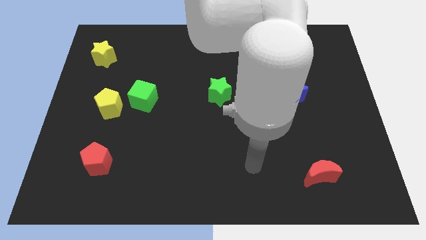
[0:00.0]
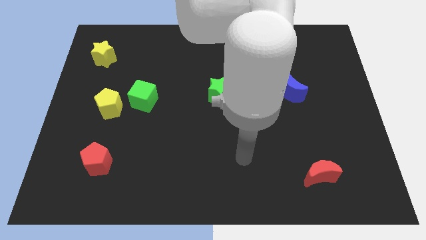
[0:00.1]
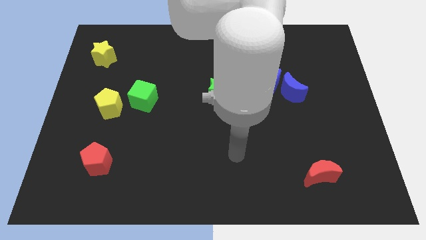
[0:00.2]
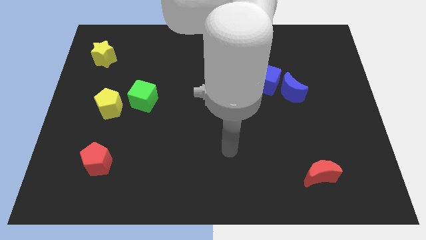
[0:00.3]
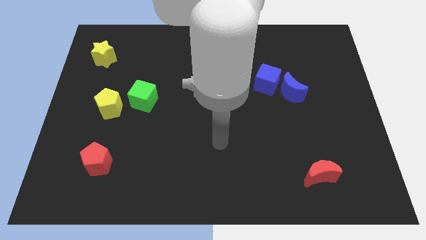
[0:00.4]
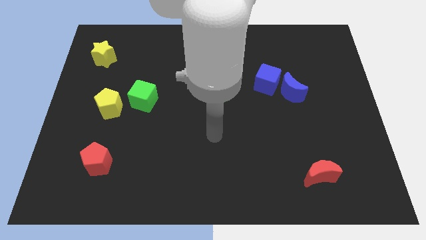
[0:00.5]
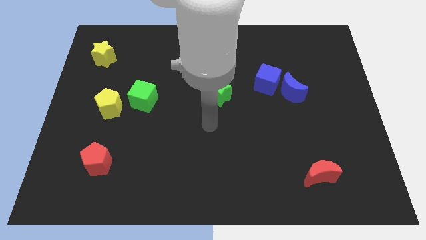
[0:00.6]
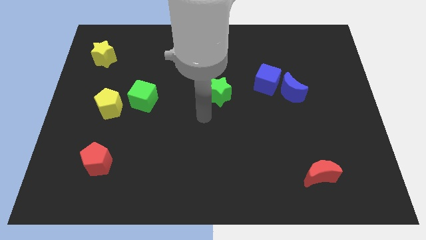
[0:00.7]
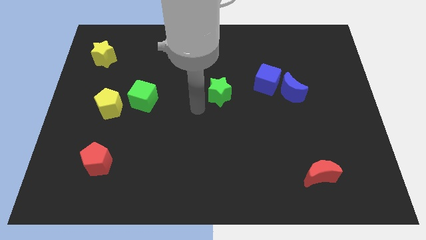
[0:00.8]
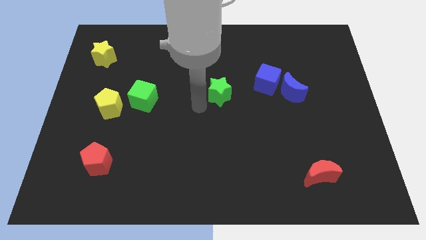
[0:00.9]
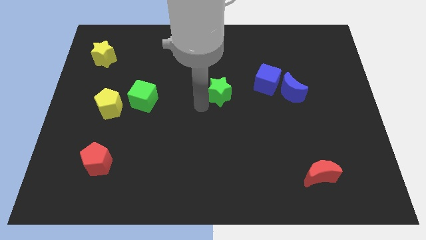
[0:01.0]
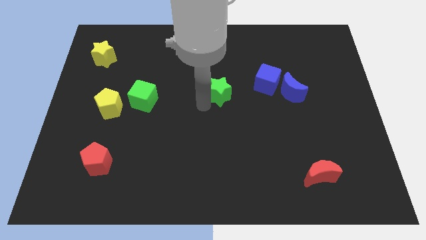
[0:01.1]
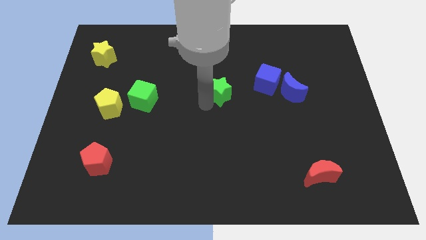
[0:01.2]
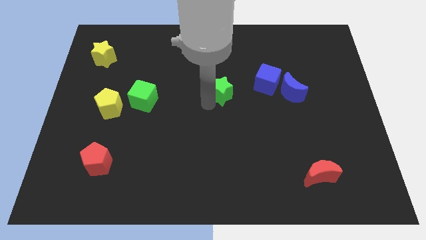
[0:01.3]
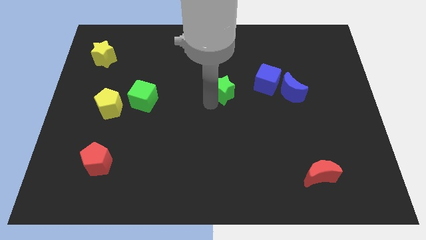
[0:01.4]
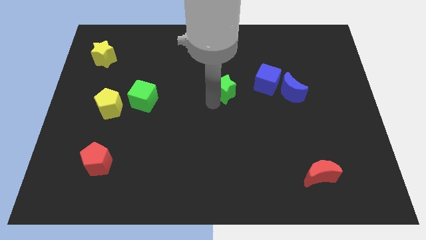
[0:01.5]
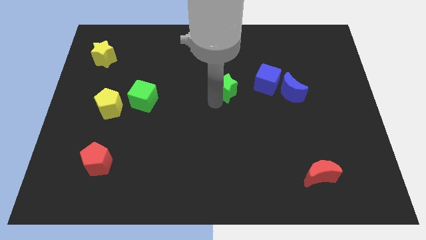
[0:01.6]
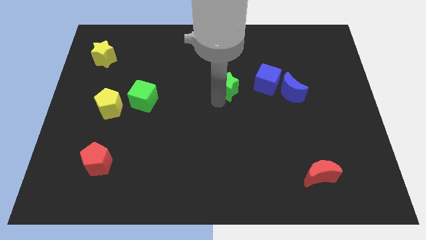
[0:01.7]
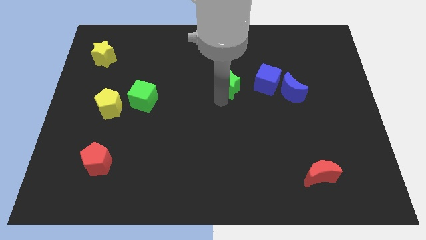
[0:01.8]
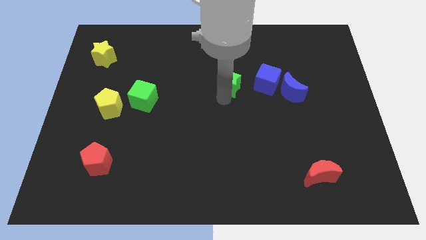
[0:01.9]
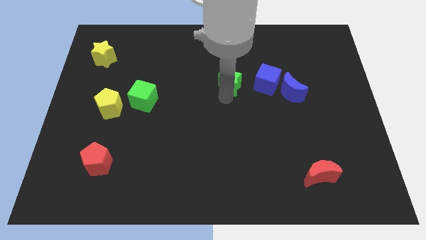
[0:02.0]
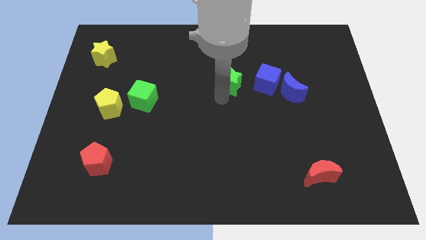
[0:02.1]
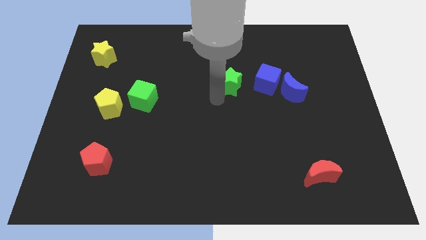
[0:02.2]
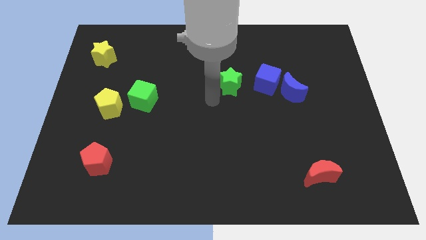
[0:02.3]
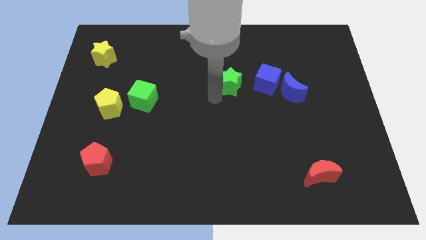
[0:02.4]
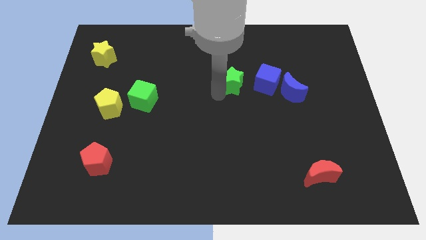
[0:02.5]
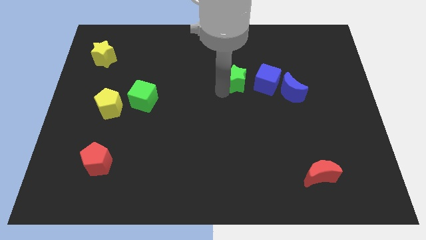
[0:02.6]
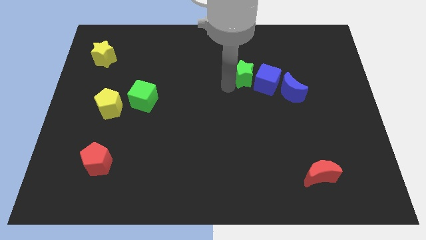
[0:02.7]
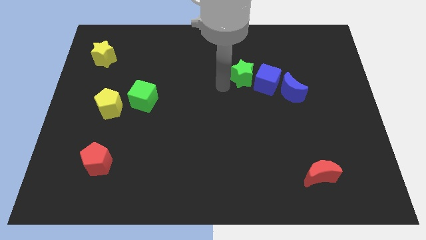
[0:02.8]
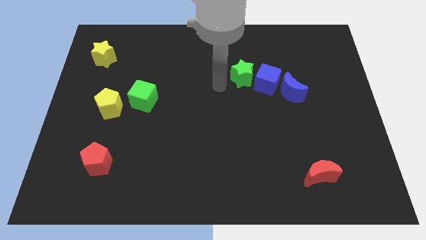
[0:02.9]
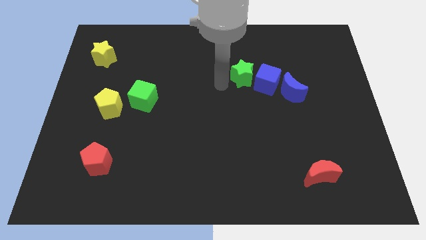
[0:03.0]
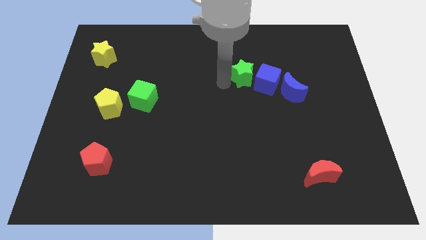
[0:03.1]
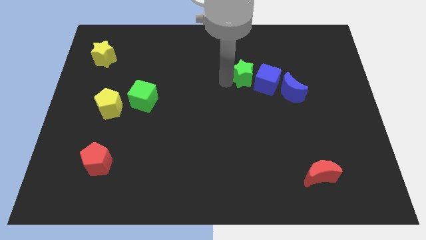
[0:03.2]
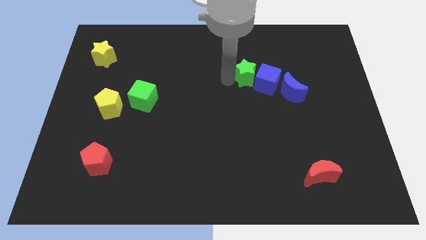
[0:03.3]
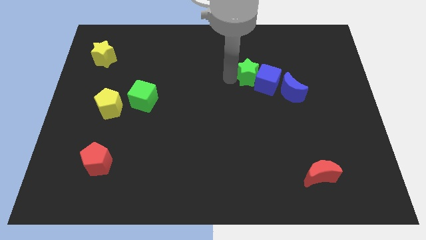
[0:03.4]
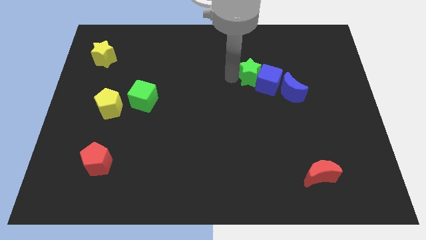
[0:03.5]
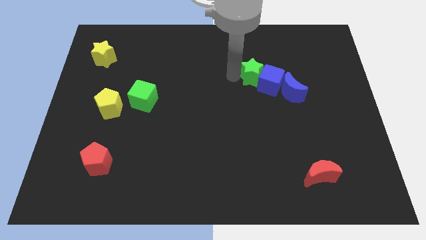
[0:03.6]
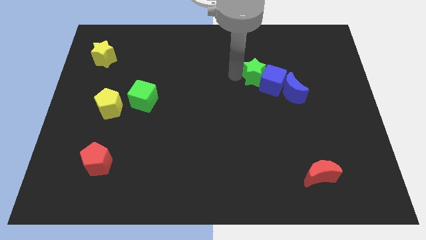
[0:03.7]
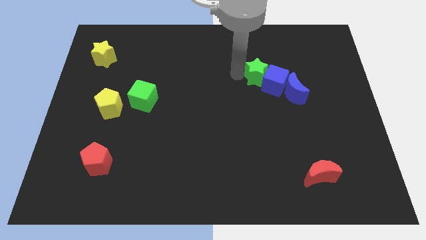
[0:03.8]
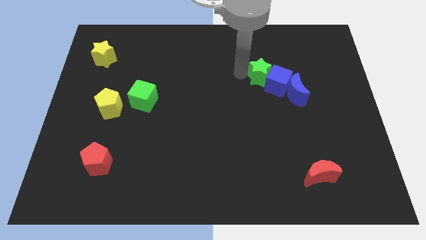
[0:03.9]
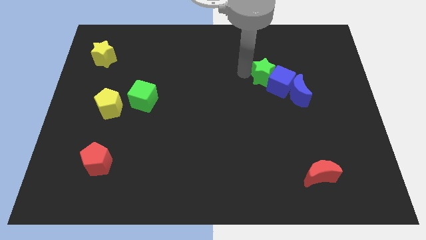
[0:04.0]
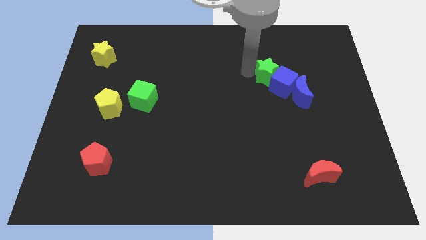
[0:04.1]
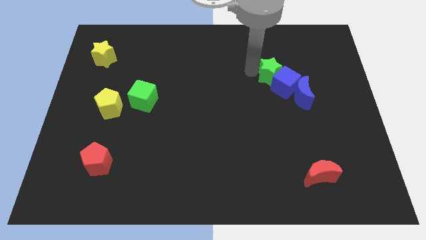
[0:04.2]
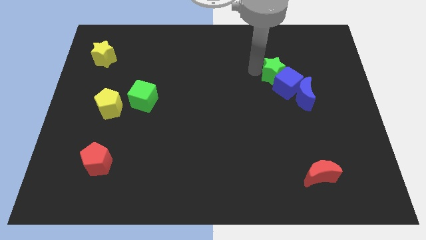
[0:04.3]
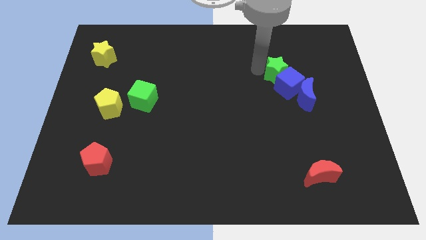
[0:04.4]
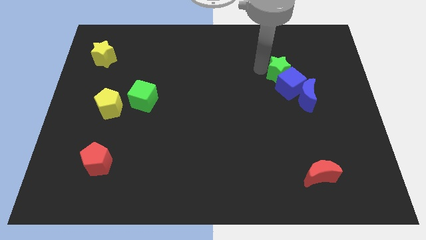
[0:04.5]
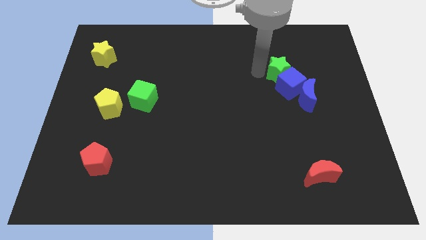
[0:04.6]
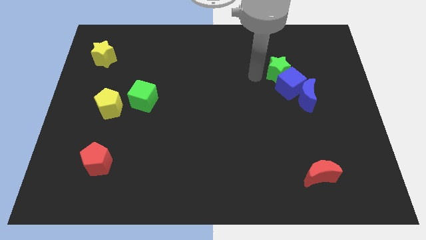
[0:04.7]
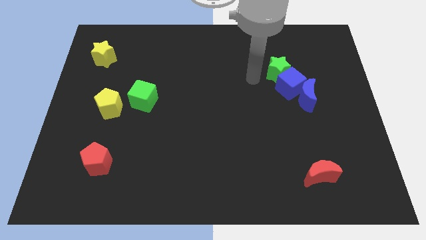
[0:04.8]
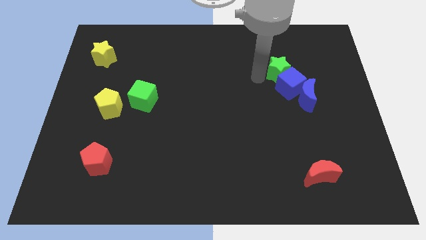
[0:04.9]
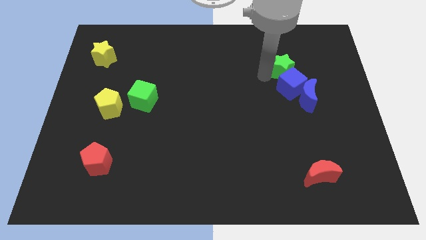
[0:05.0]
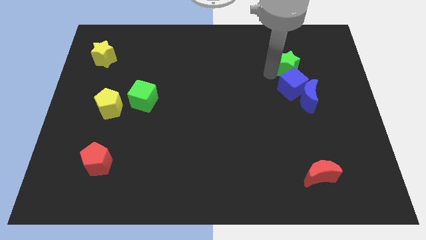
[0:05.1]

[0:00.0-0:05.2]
move the green star above the blue moon

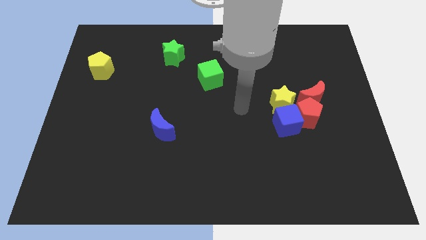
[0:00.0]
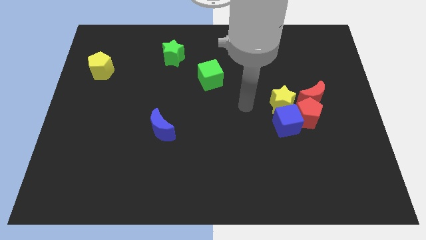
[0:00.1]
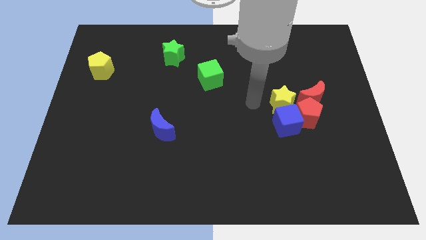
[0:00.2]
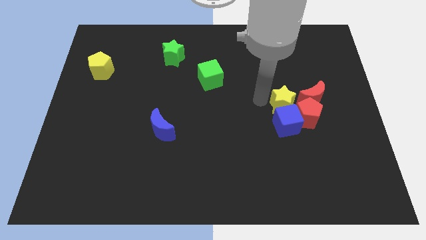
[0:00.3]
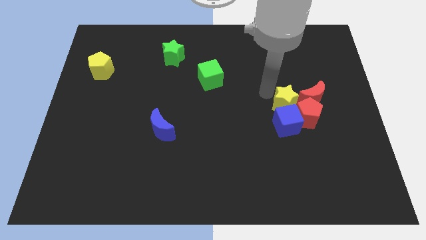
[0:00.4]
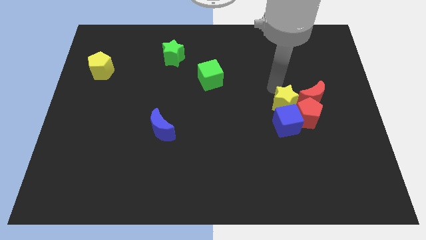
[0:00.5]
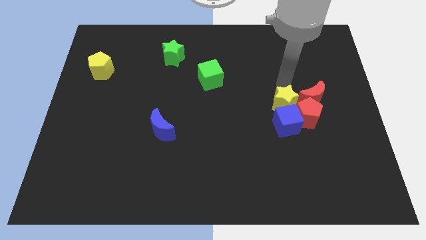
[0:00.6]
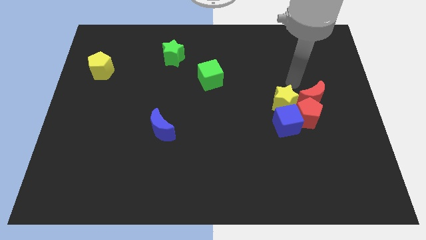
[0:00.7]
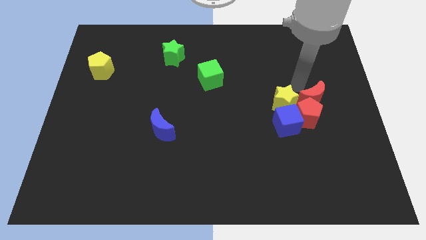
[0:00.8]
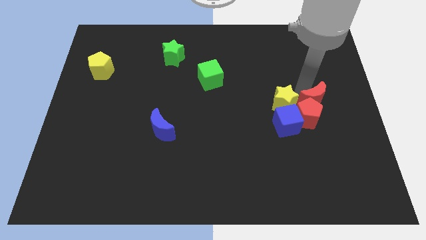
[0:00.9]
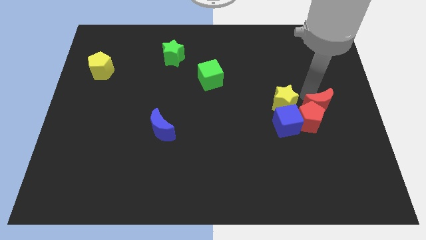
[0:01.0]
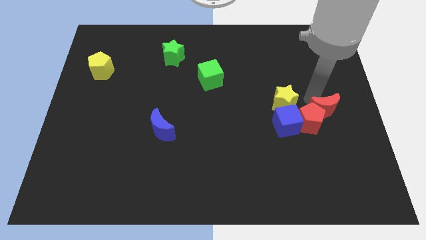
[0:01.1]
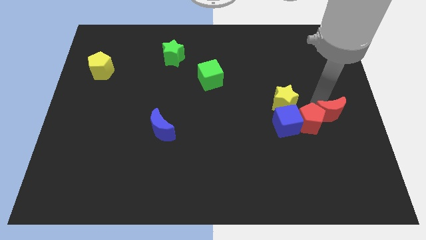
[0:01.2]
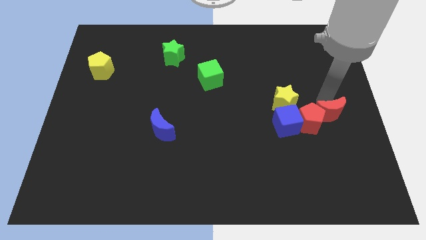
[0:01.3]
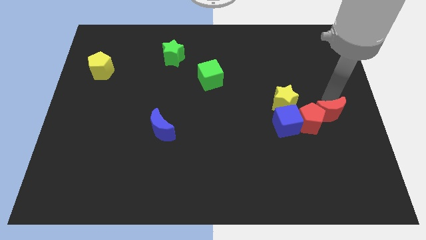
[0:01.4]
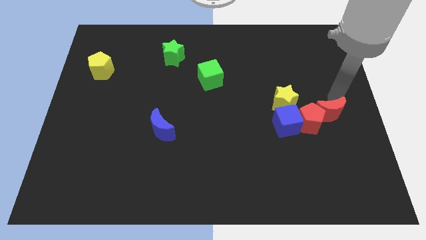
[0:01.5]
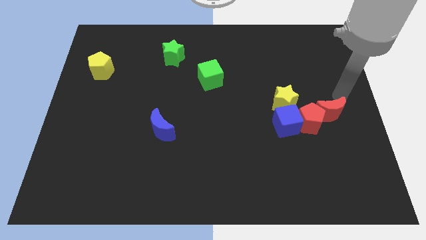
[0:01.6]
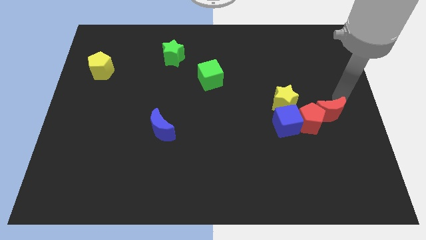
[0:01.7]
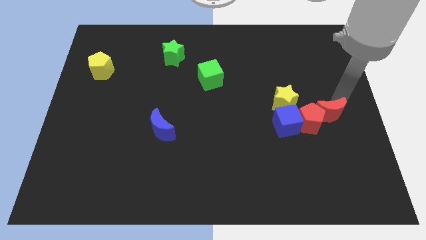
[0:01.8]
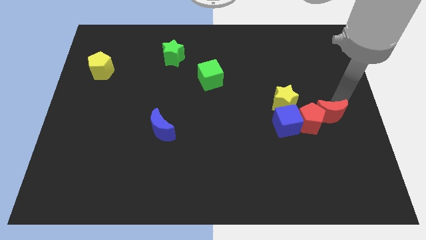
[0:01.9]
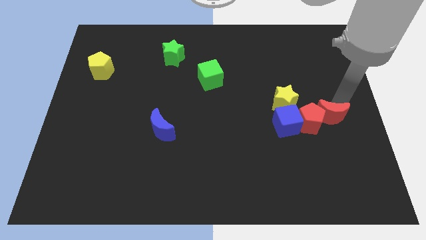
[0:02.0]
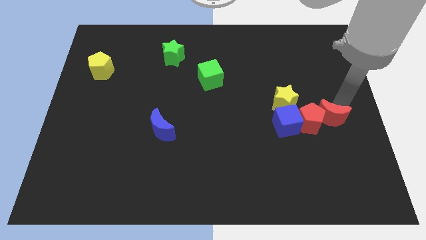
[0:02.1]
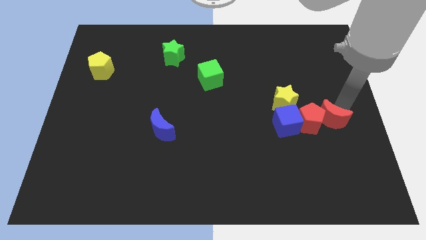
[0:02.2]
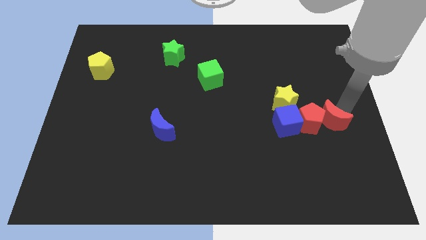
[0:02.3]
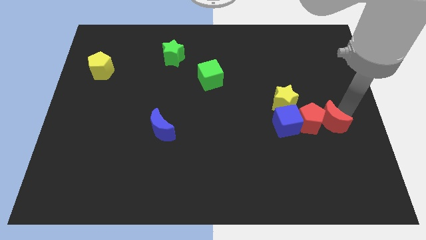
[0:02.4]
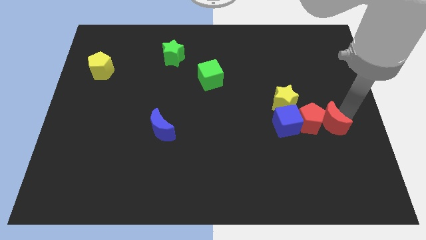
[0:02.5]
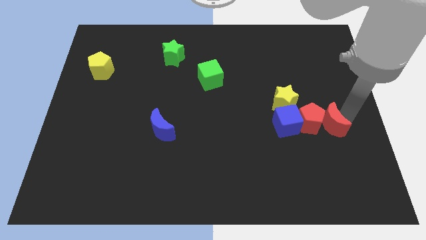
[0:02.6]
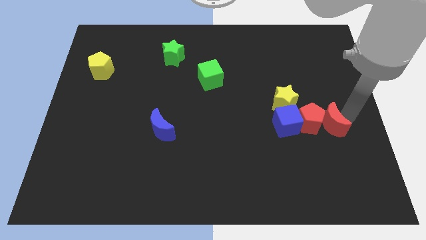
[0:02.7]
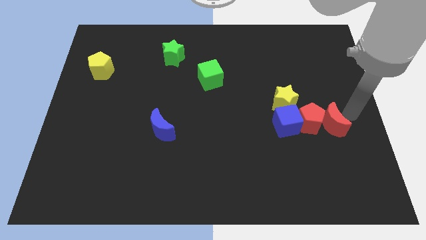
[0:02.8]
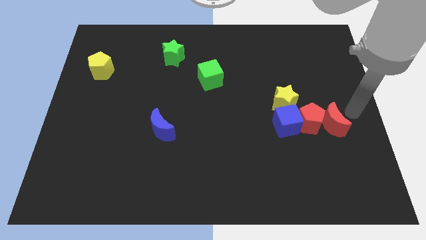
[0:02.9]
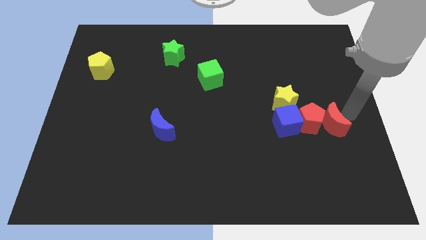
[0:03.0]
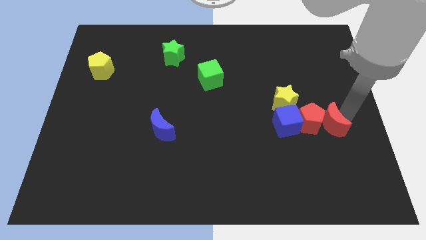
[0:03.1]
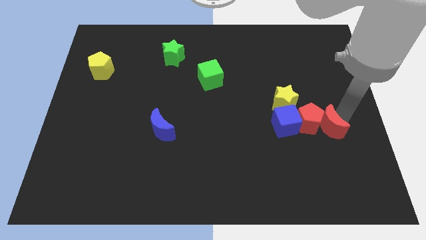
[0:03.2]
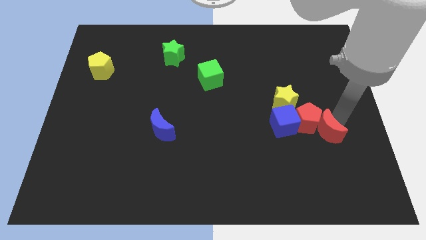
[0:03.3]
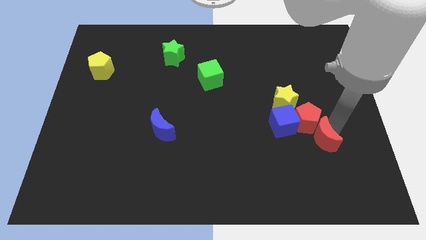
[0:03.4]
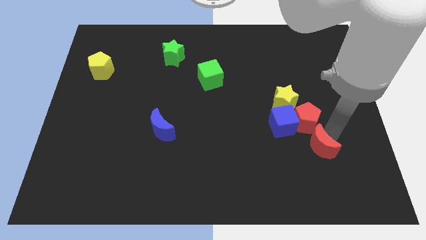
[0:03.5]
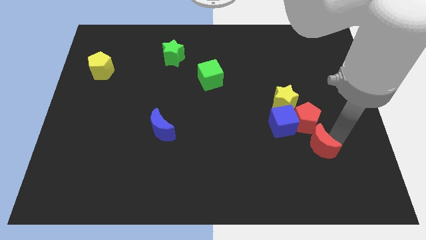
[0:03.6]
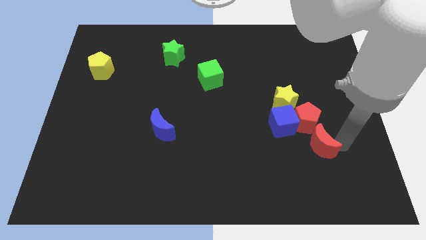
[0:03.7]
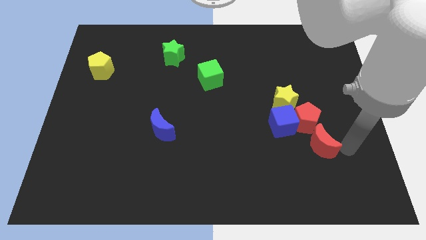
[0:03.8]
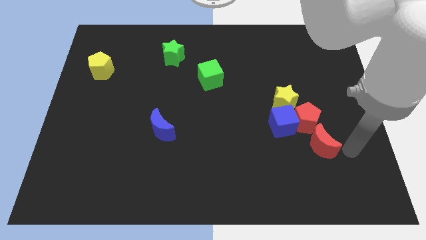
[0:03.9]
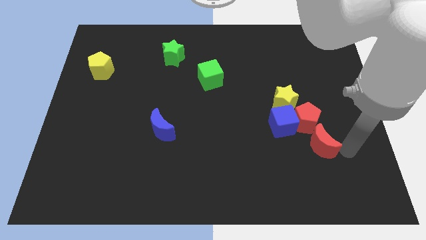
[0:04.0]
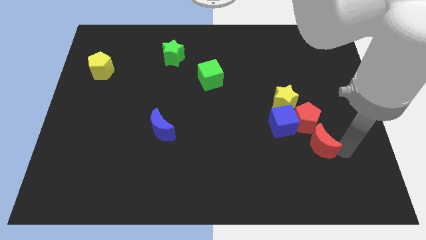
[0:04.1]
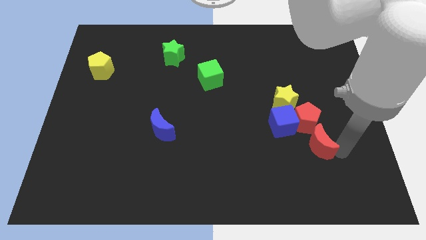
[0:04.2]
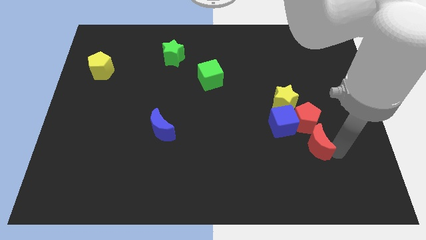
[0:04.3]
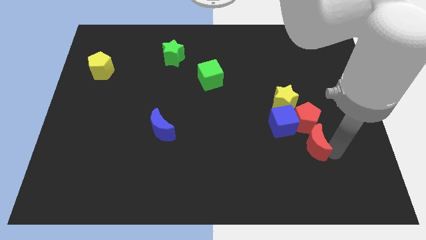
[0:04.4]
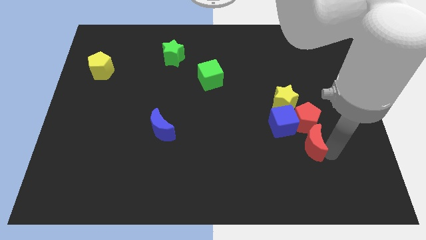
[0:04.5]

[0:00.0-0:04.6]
put the red moon diagonally down and to the left of the red pentagon
